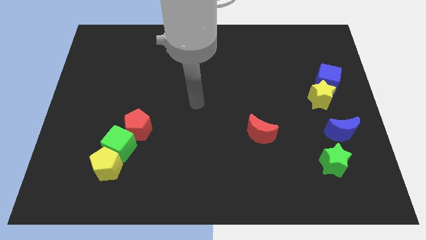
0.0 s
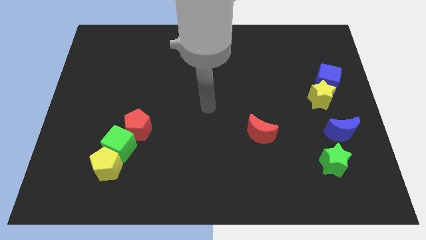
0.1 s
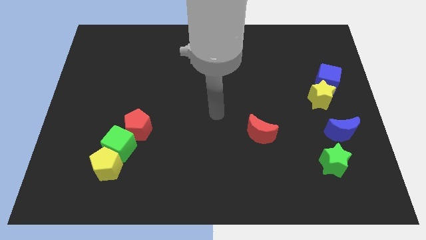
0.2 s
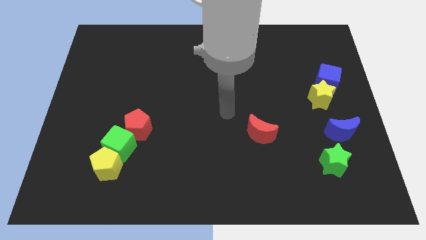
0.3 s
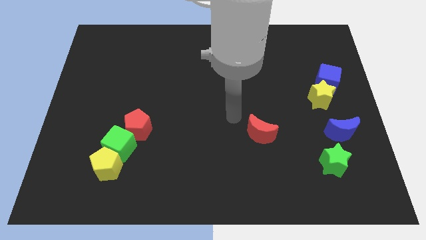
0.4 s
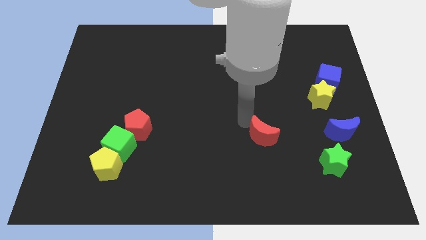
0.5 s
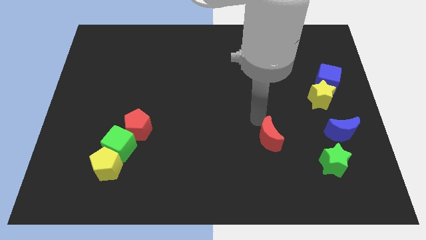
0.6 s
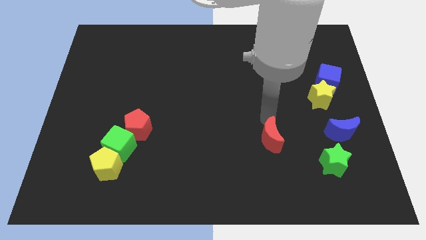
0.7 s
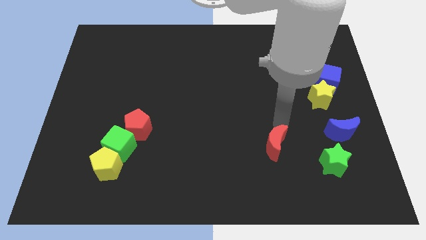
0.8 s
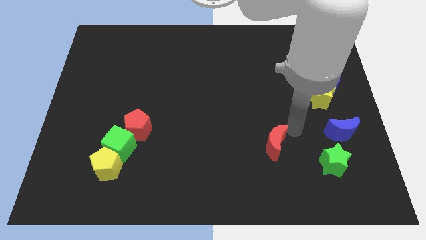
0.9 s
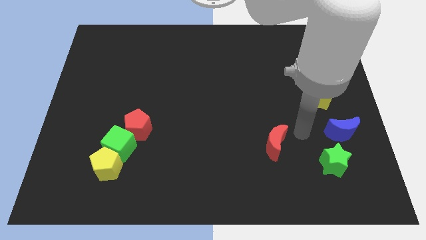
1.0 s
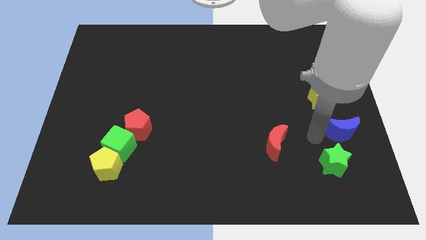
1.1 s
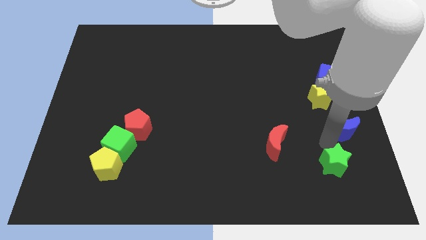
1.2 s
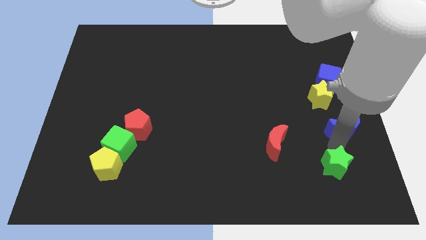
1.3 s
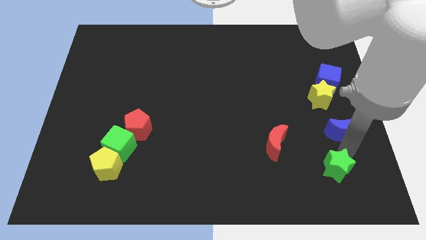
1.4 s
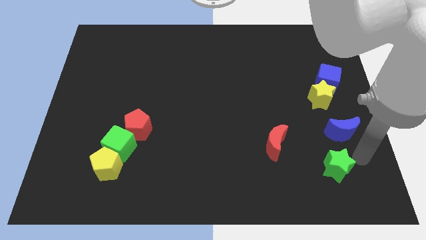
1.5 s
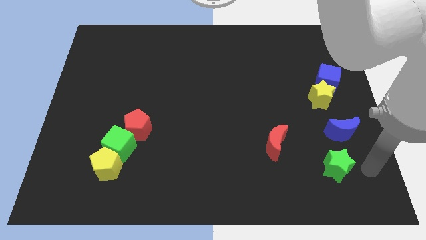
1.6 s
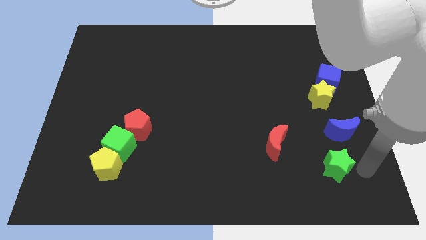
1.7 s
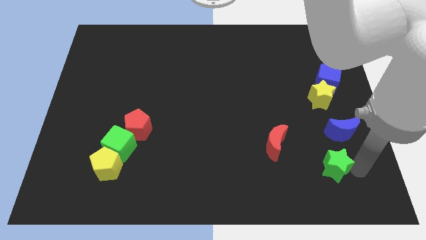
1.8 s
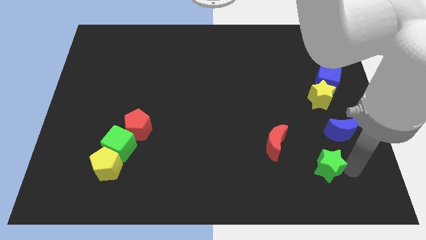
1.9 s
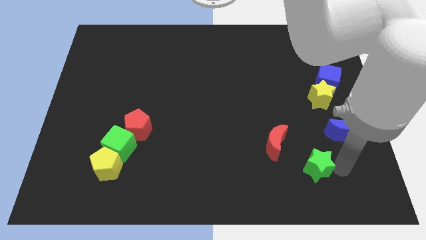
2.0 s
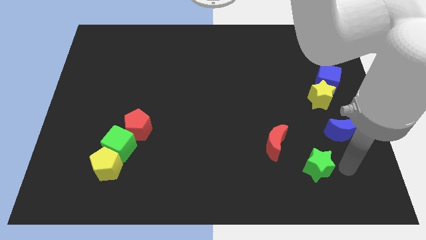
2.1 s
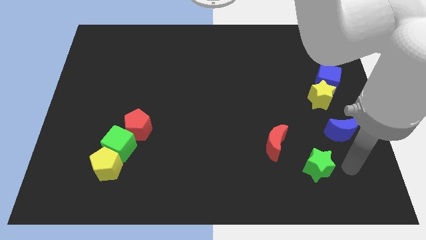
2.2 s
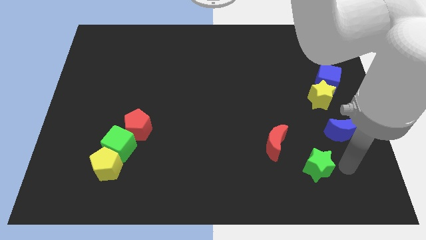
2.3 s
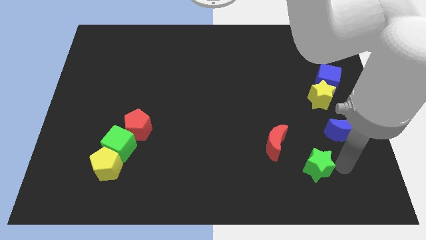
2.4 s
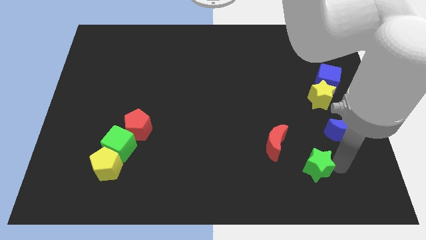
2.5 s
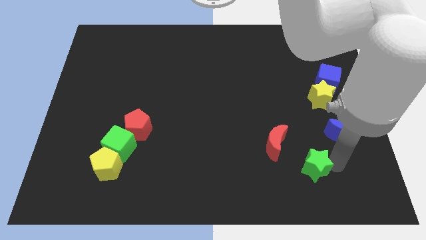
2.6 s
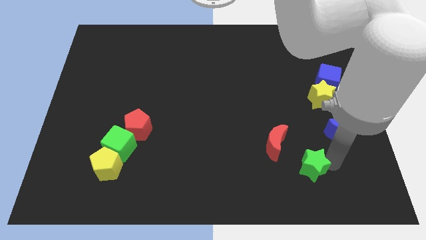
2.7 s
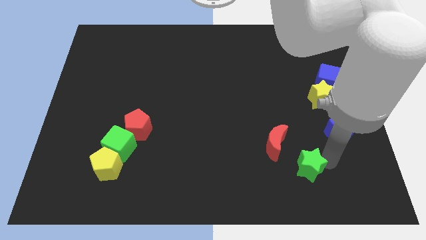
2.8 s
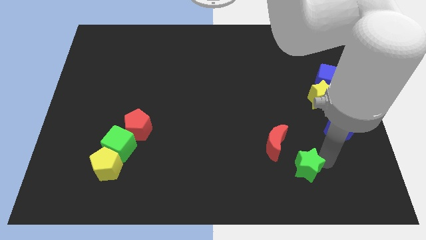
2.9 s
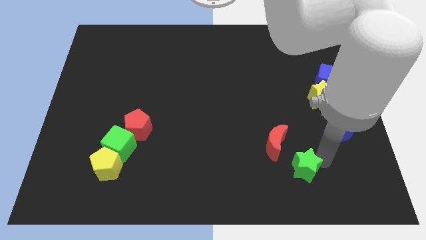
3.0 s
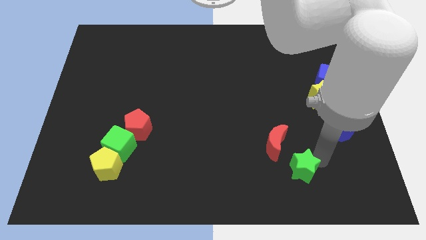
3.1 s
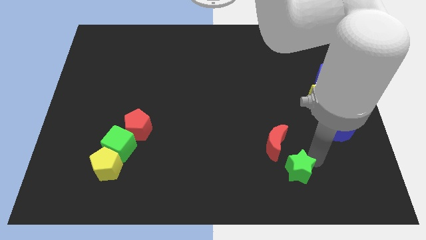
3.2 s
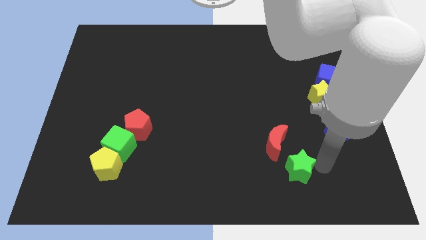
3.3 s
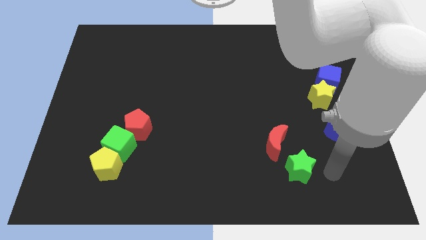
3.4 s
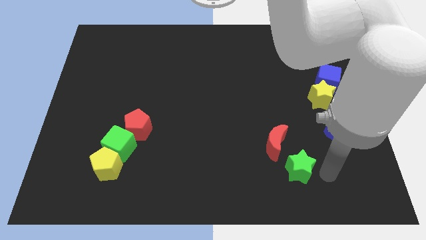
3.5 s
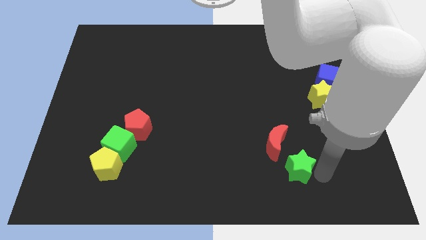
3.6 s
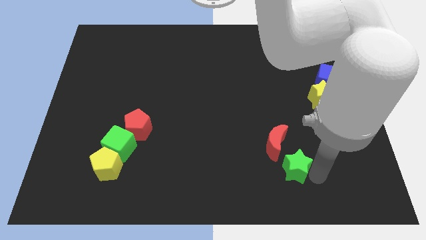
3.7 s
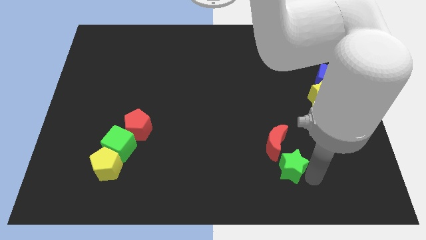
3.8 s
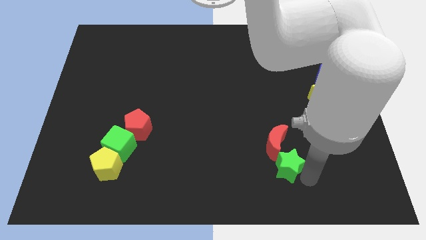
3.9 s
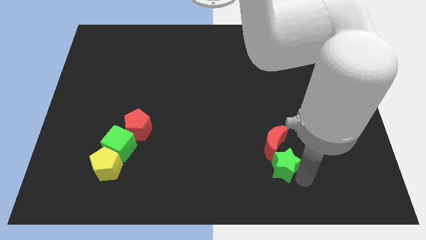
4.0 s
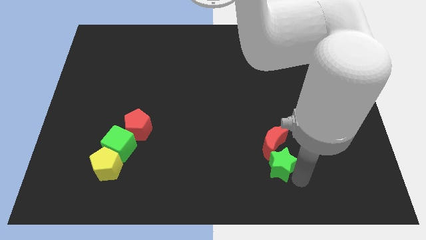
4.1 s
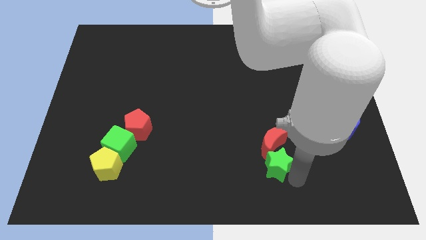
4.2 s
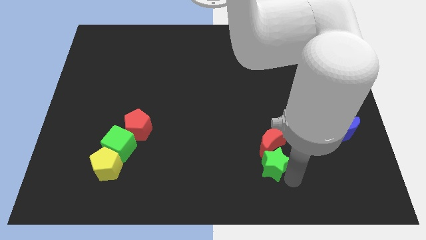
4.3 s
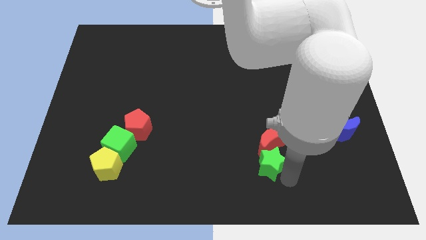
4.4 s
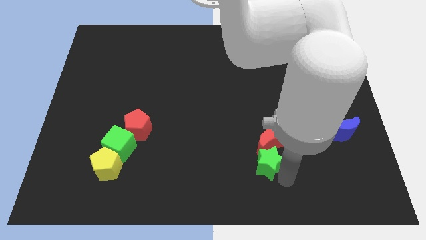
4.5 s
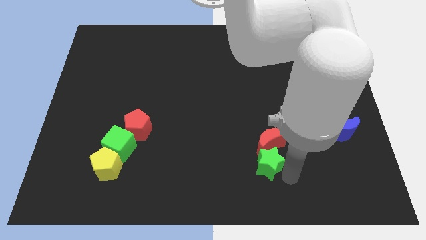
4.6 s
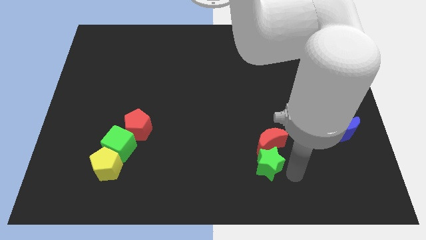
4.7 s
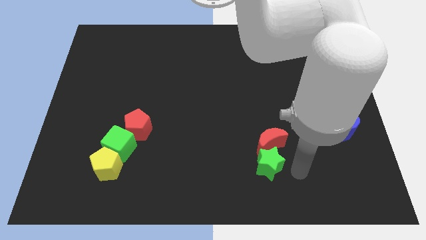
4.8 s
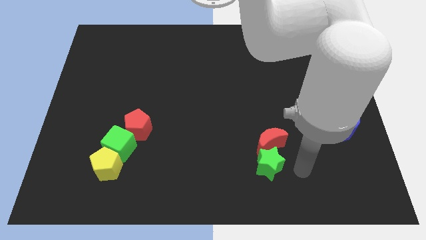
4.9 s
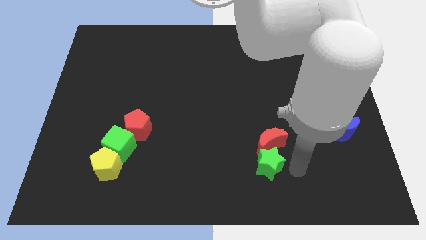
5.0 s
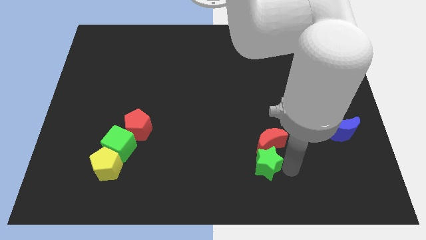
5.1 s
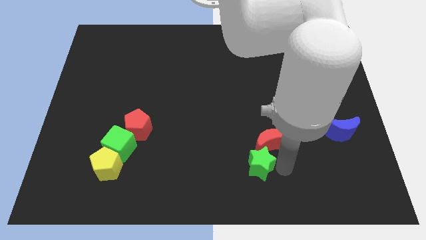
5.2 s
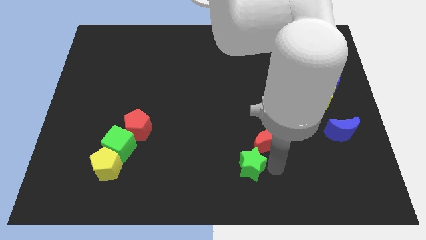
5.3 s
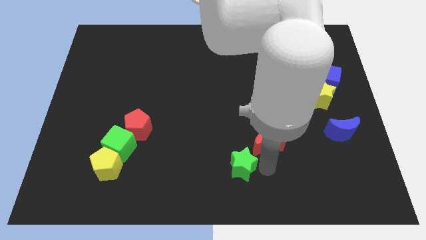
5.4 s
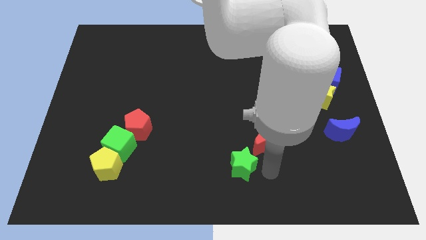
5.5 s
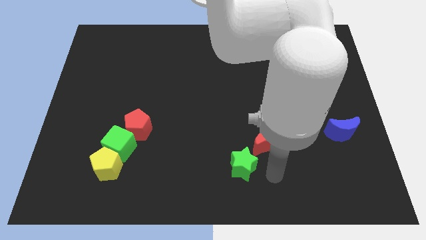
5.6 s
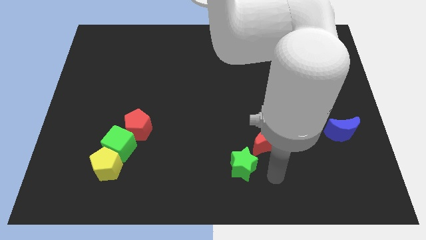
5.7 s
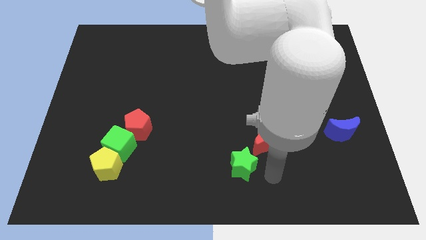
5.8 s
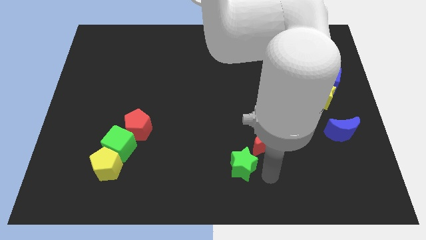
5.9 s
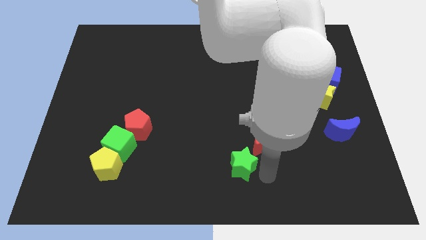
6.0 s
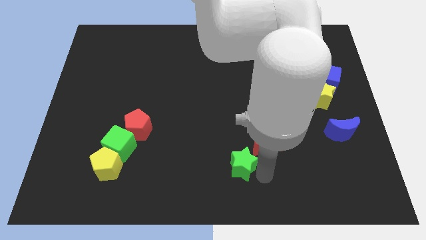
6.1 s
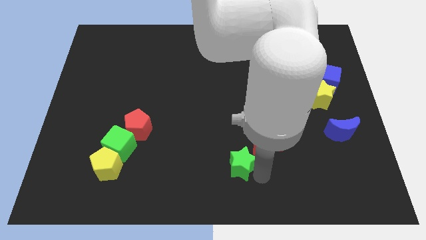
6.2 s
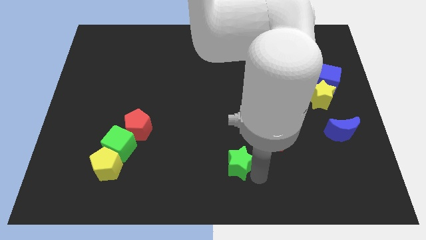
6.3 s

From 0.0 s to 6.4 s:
push the green star to the left

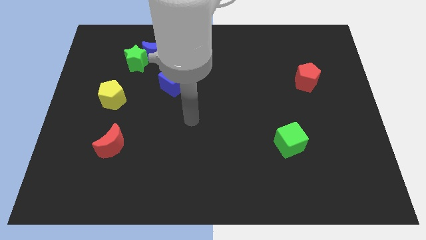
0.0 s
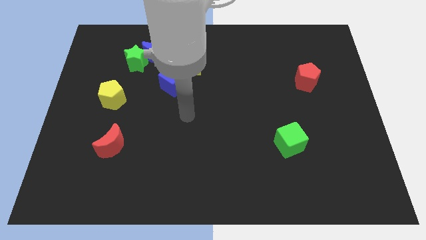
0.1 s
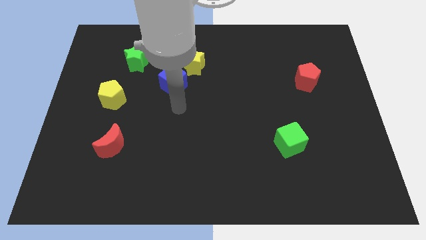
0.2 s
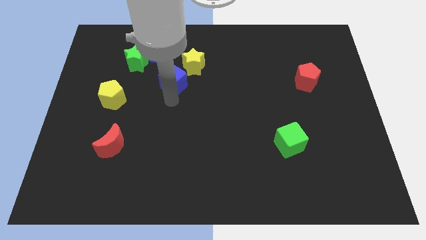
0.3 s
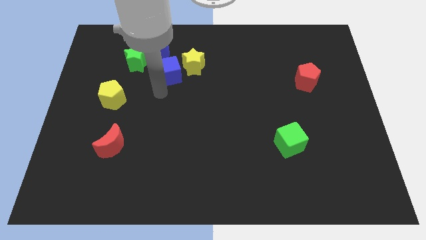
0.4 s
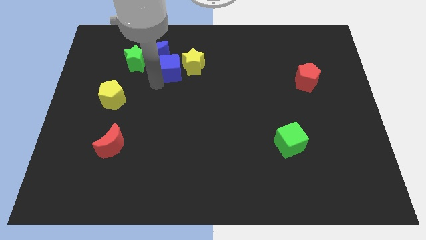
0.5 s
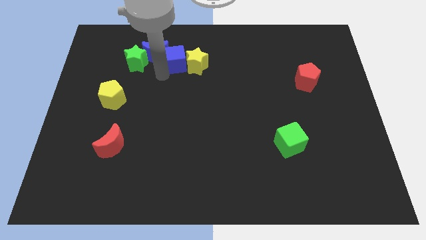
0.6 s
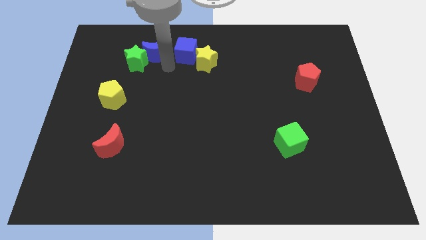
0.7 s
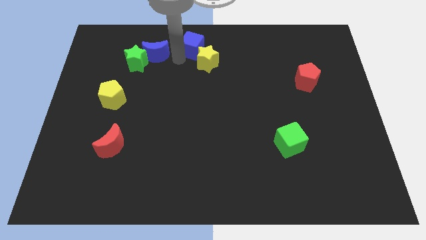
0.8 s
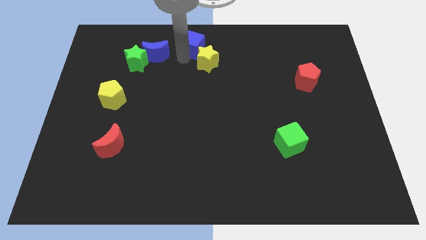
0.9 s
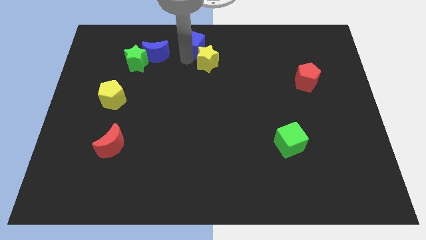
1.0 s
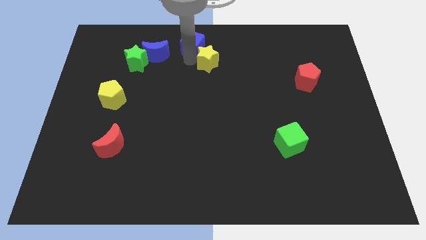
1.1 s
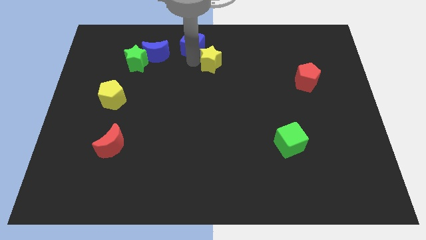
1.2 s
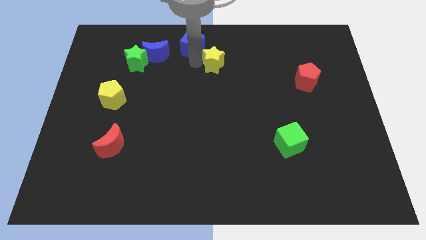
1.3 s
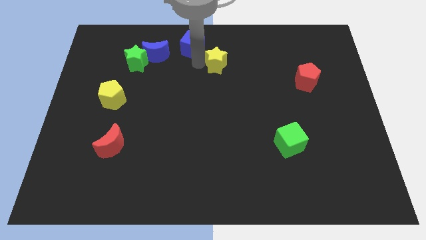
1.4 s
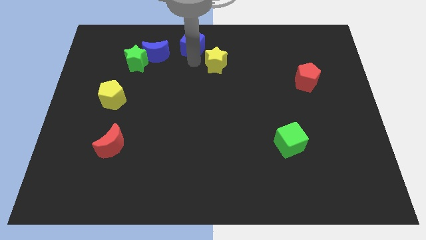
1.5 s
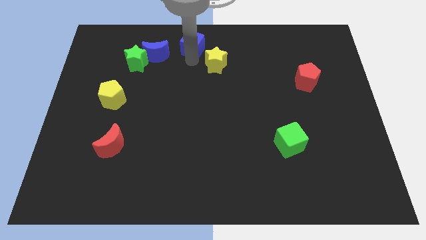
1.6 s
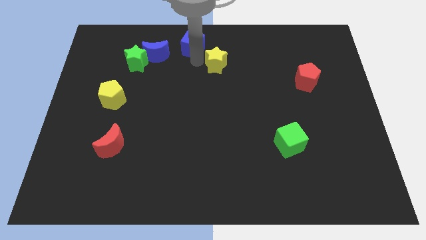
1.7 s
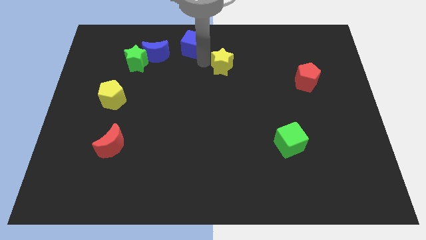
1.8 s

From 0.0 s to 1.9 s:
push the yellow star to the right slightly
